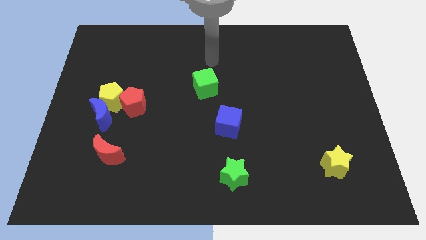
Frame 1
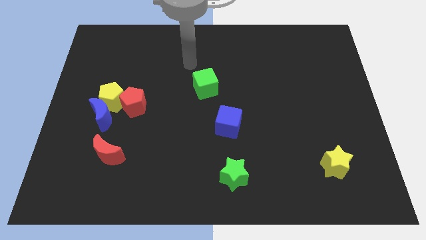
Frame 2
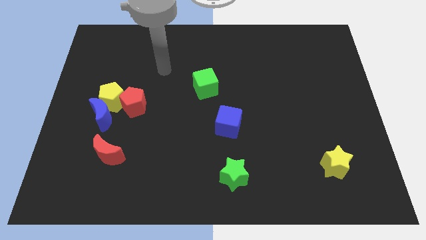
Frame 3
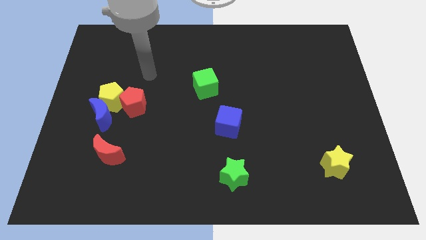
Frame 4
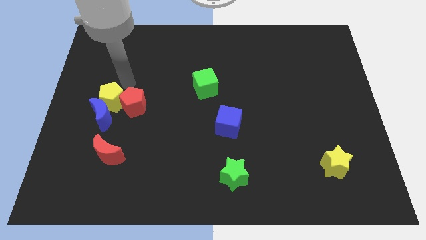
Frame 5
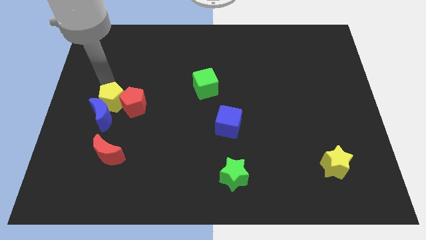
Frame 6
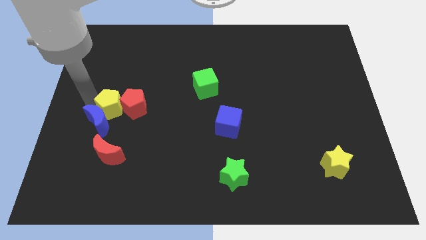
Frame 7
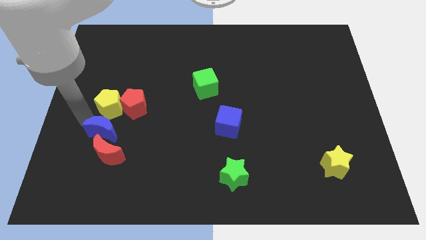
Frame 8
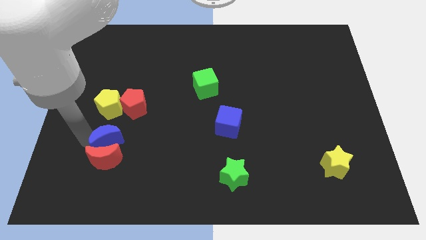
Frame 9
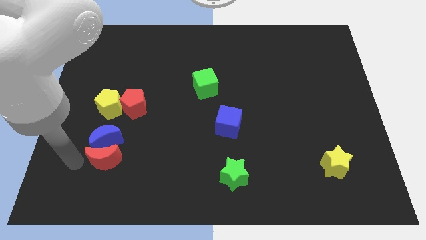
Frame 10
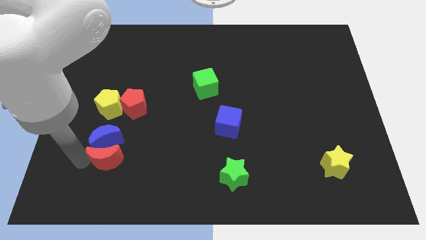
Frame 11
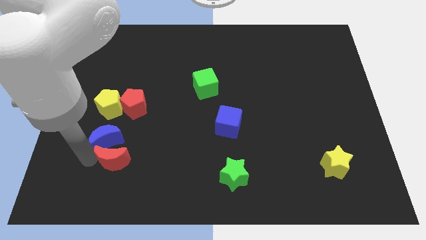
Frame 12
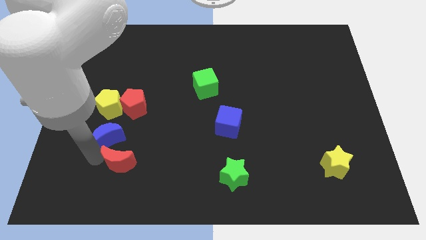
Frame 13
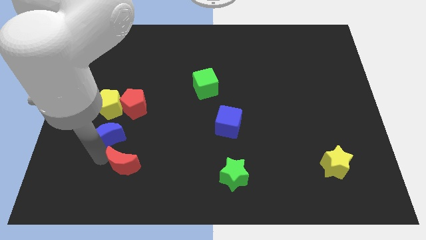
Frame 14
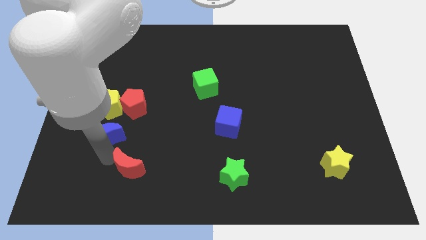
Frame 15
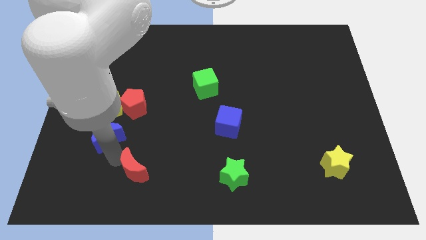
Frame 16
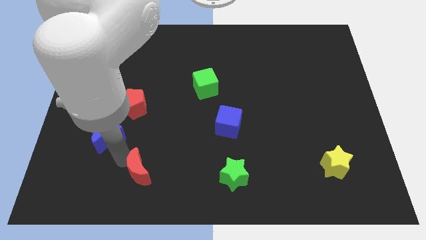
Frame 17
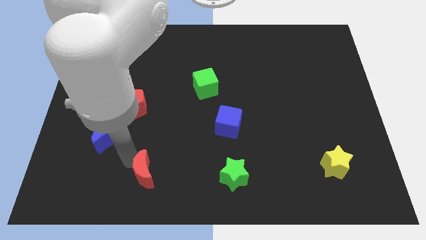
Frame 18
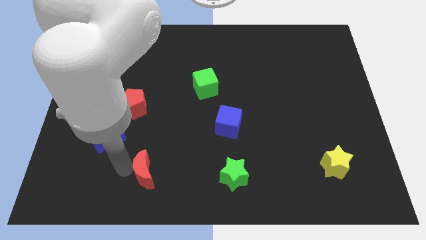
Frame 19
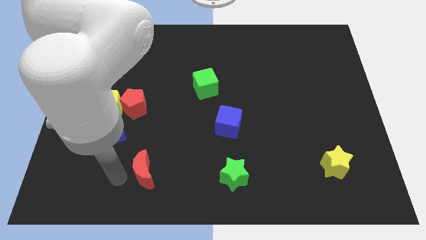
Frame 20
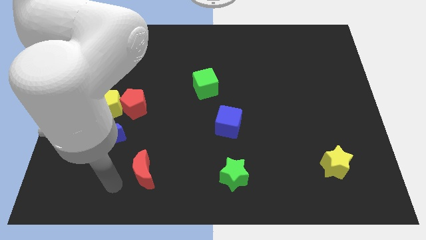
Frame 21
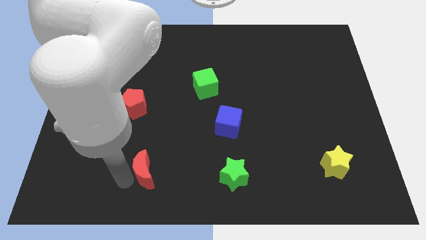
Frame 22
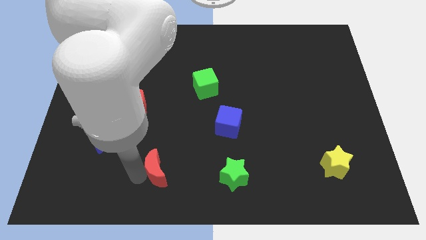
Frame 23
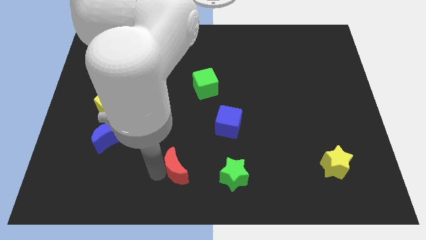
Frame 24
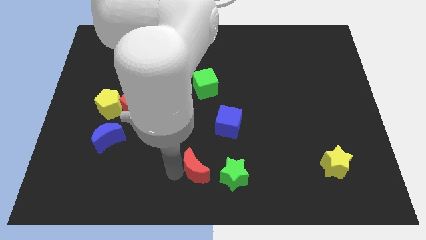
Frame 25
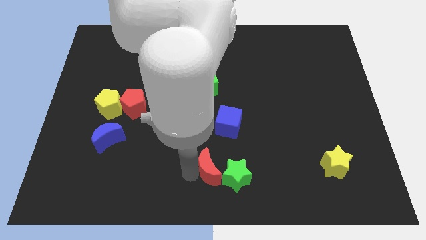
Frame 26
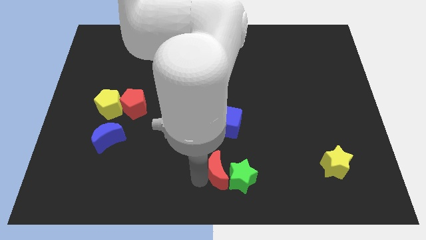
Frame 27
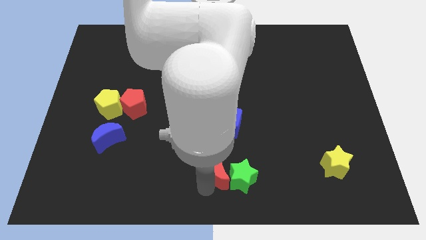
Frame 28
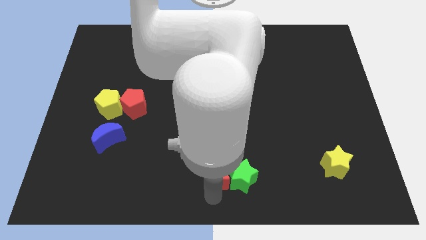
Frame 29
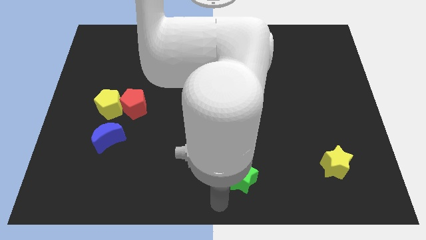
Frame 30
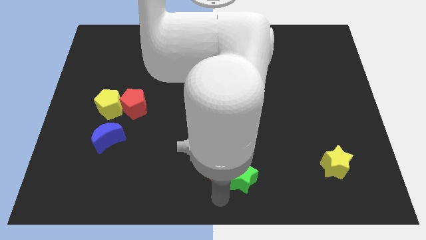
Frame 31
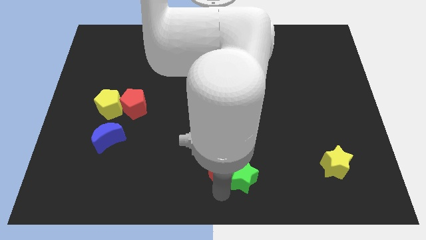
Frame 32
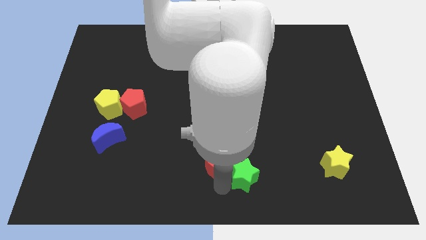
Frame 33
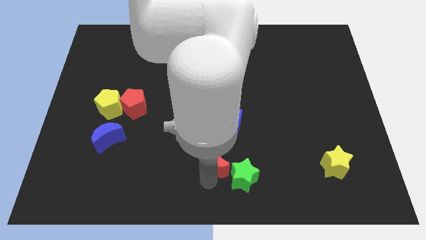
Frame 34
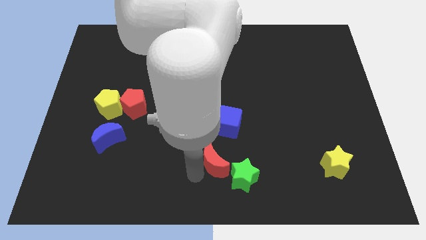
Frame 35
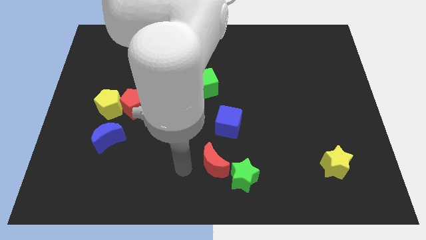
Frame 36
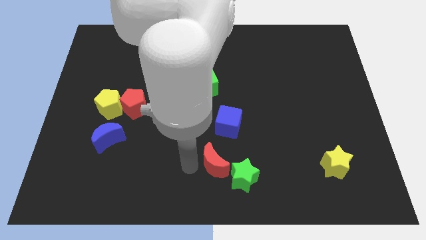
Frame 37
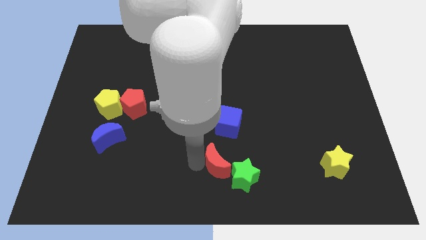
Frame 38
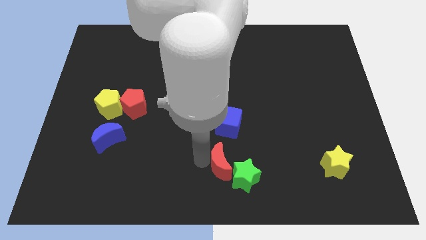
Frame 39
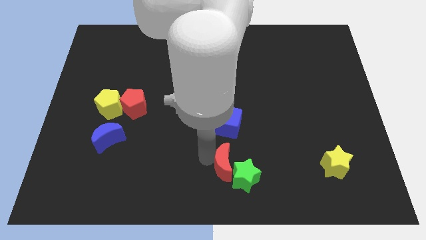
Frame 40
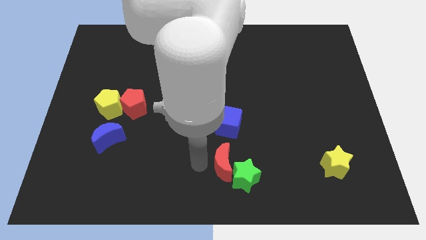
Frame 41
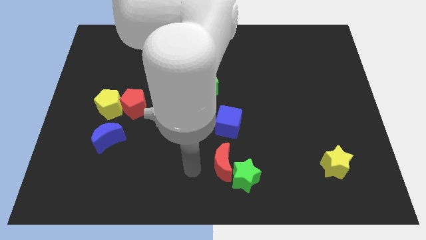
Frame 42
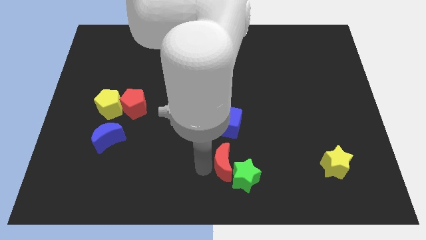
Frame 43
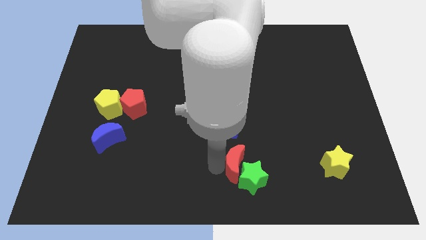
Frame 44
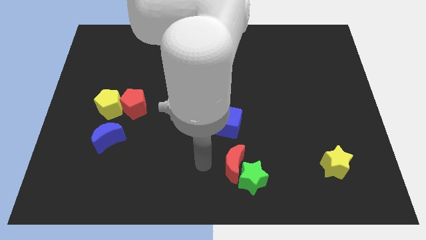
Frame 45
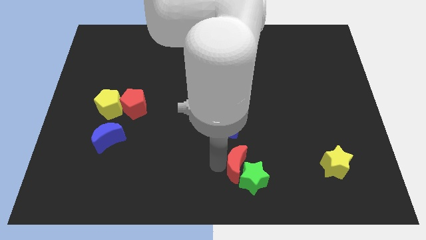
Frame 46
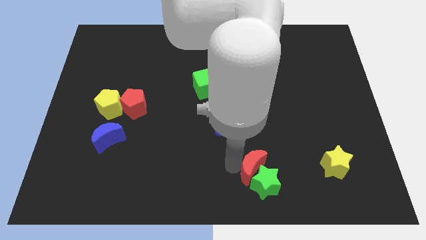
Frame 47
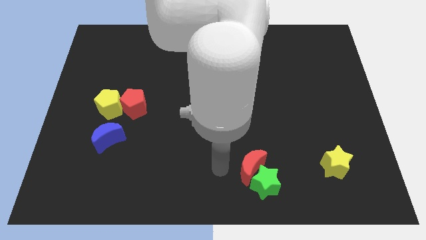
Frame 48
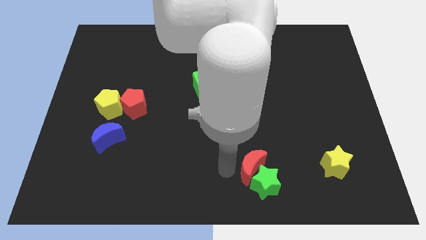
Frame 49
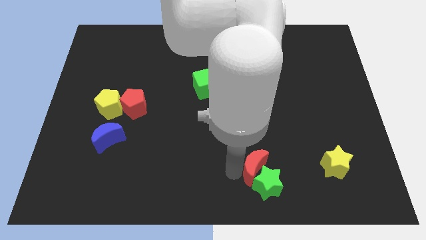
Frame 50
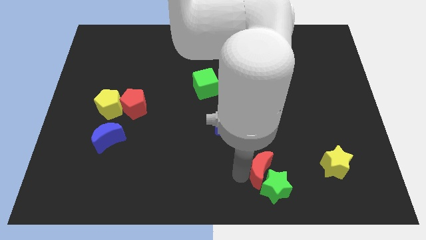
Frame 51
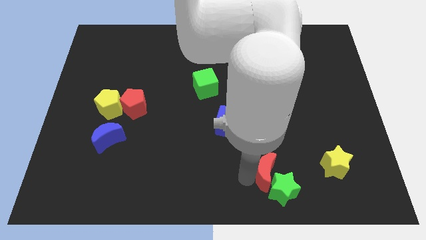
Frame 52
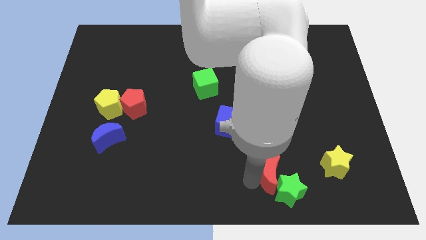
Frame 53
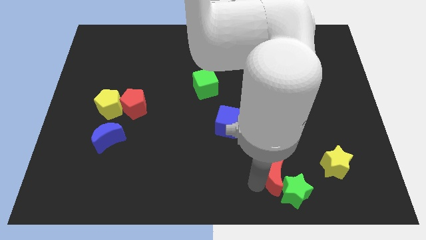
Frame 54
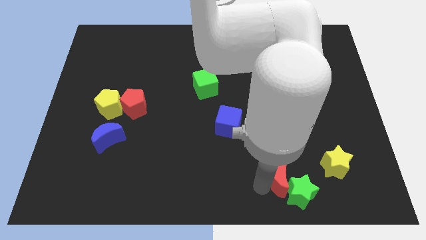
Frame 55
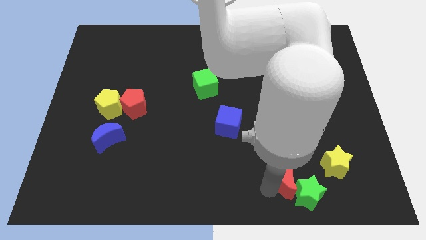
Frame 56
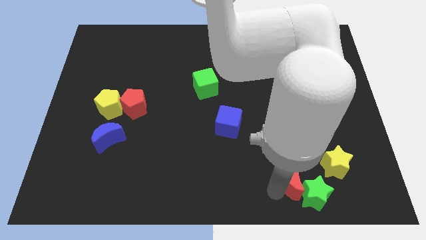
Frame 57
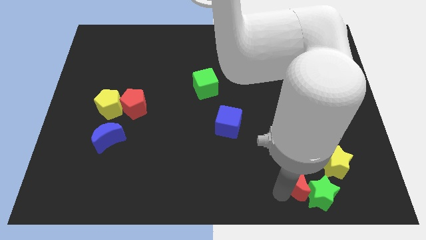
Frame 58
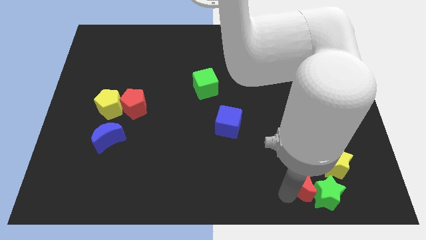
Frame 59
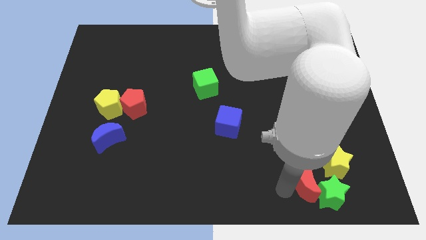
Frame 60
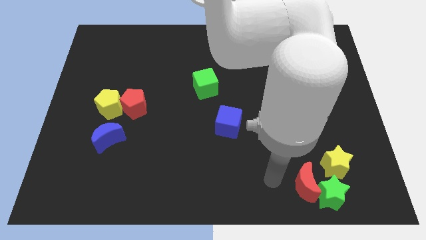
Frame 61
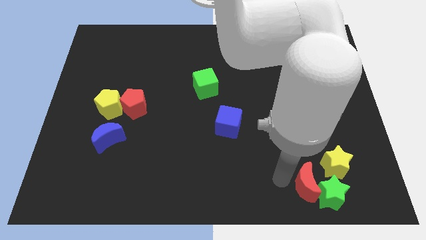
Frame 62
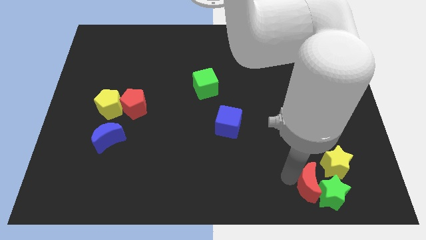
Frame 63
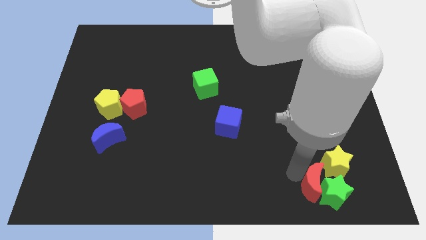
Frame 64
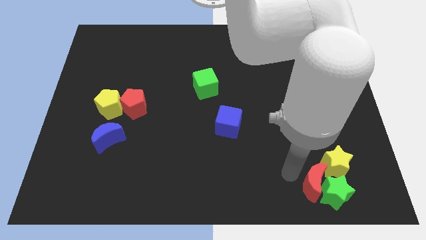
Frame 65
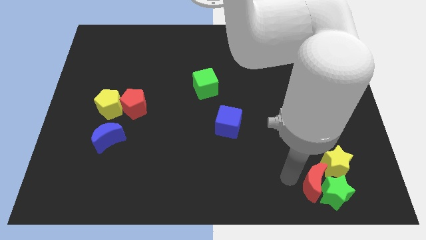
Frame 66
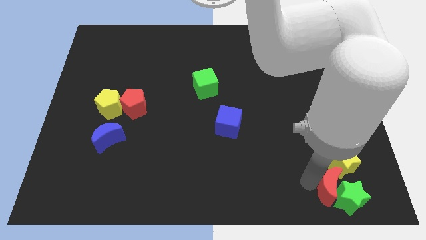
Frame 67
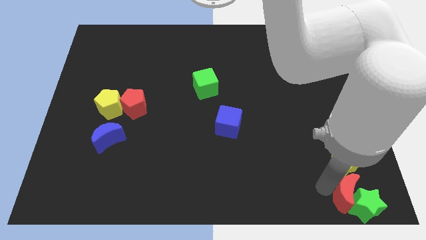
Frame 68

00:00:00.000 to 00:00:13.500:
put the red moon to the lower right corner
